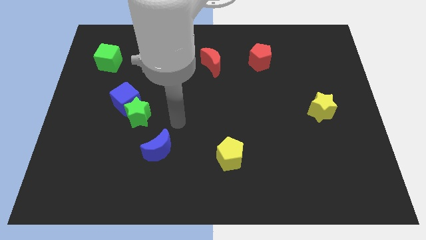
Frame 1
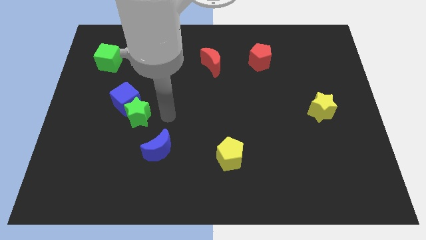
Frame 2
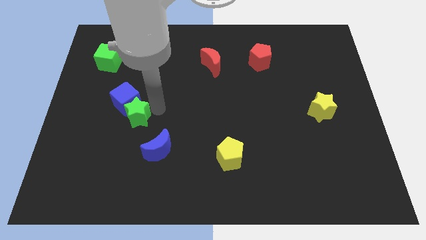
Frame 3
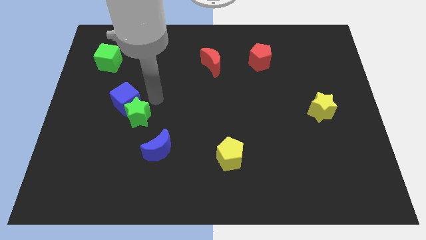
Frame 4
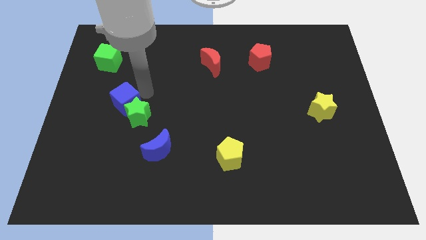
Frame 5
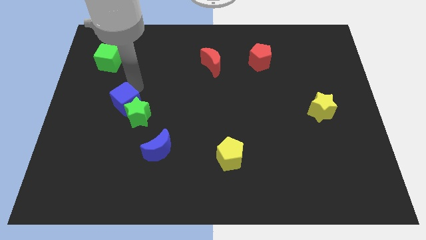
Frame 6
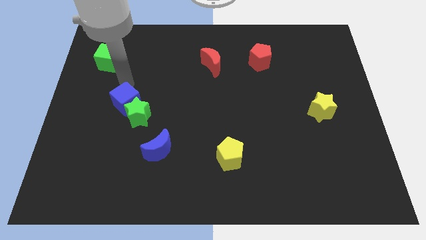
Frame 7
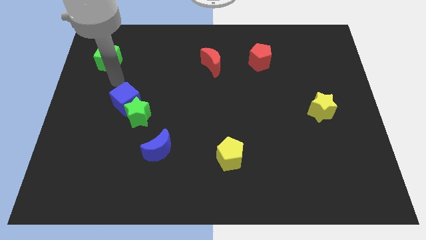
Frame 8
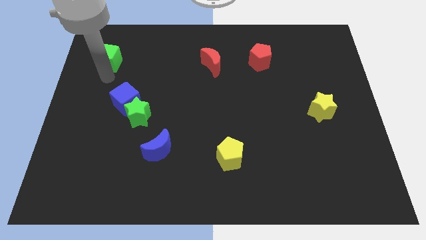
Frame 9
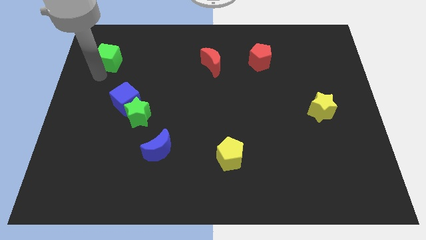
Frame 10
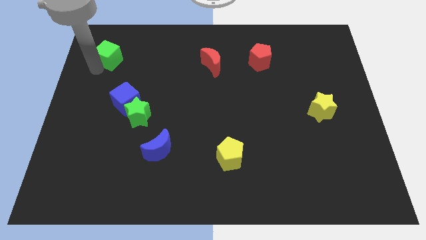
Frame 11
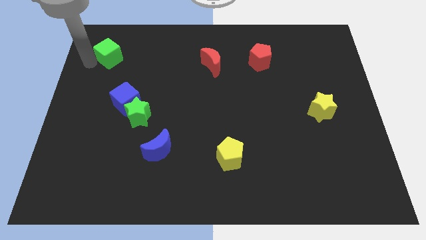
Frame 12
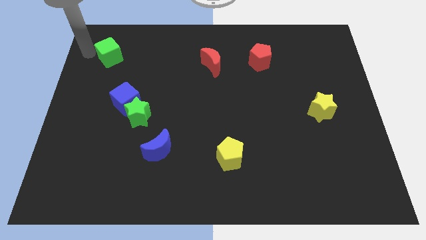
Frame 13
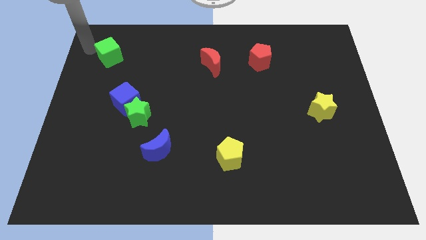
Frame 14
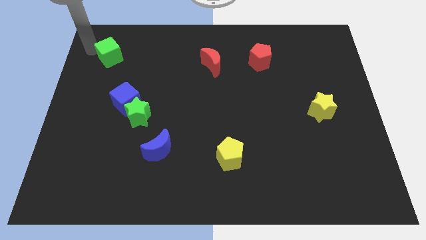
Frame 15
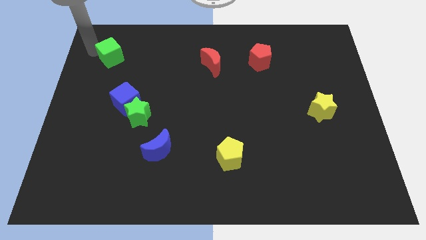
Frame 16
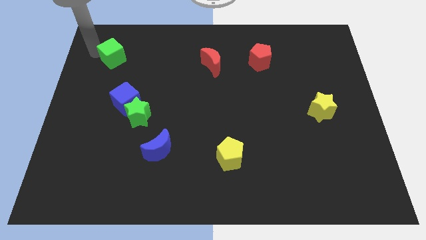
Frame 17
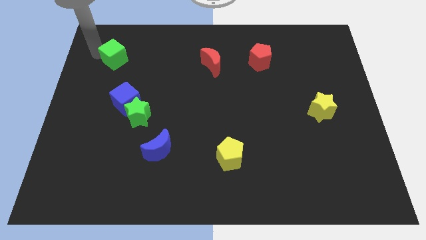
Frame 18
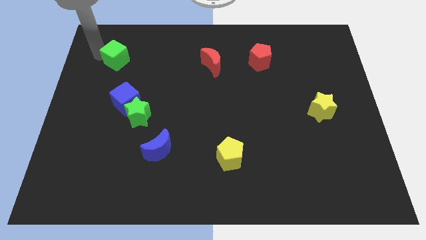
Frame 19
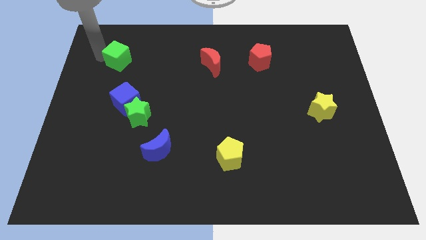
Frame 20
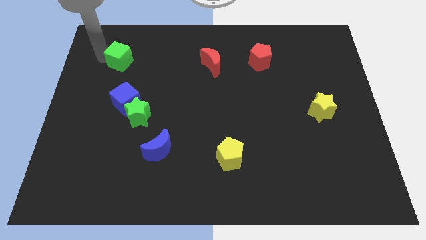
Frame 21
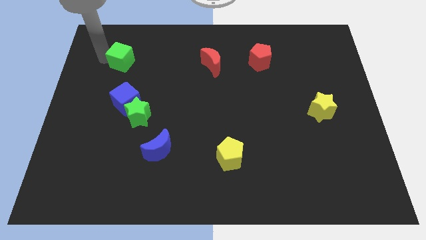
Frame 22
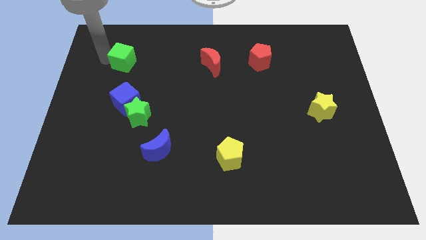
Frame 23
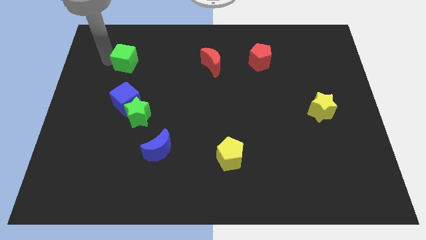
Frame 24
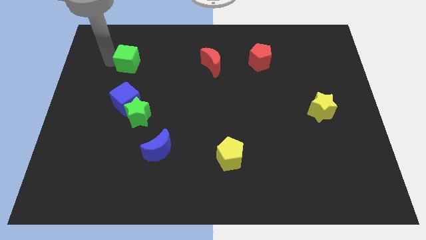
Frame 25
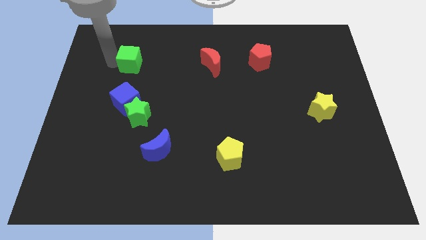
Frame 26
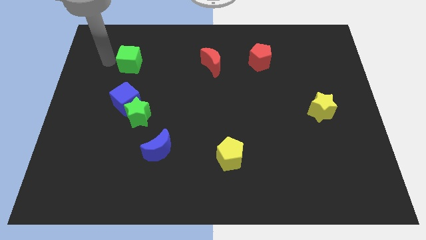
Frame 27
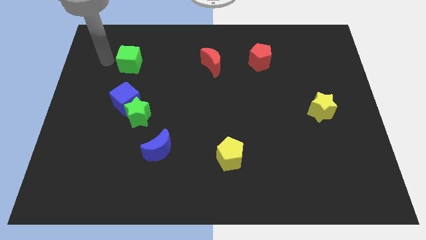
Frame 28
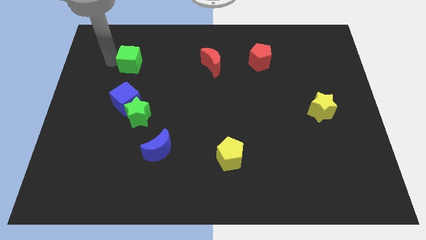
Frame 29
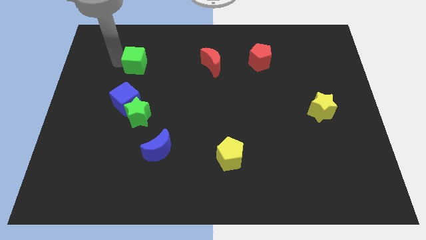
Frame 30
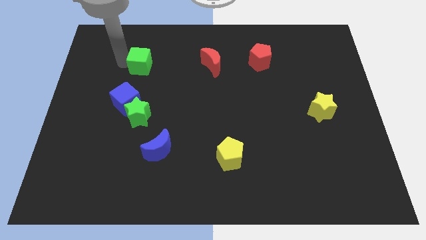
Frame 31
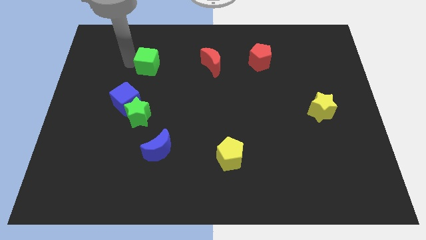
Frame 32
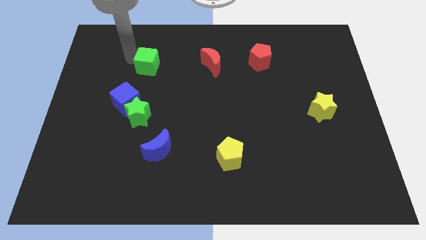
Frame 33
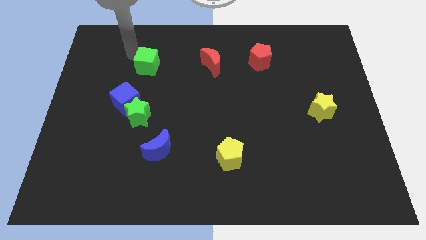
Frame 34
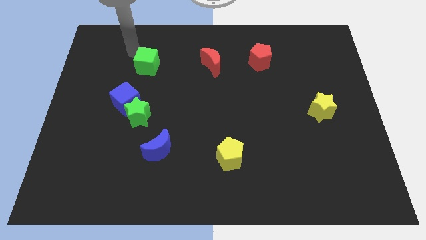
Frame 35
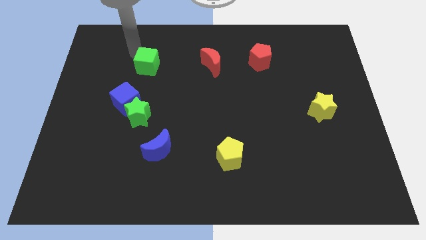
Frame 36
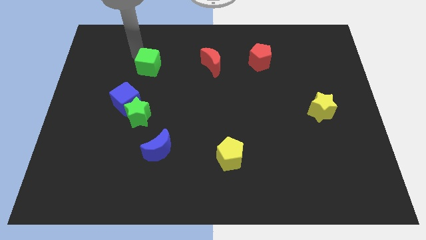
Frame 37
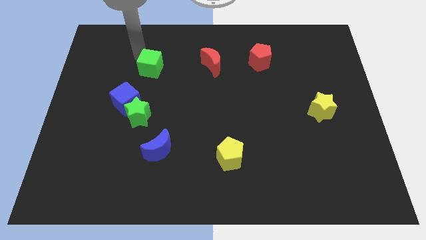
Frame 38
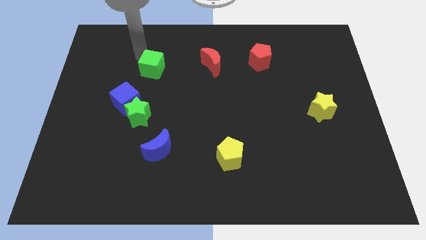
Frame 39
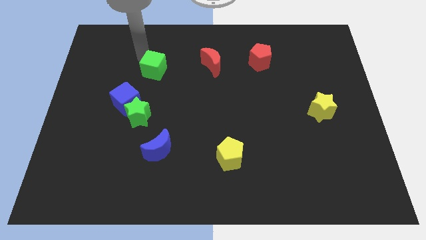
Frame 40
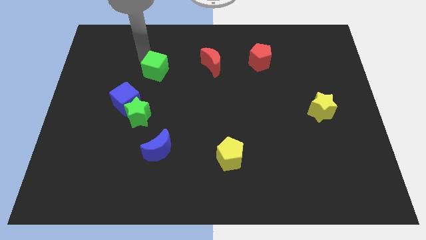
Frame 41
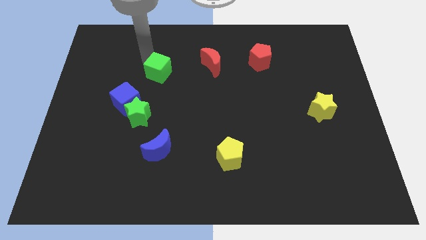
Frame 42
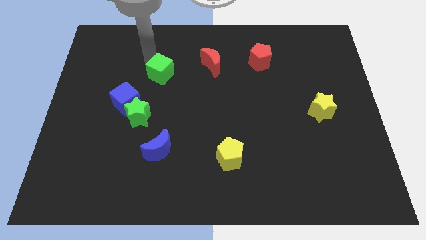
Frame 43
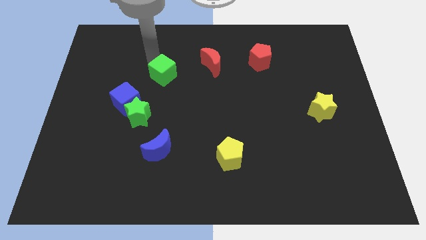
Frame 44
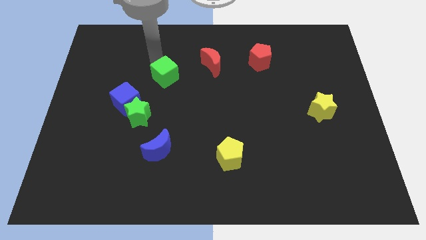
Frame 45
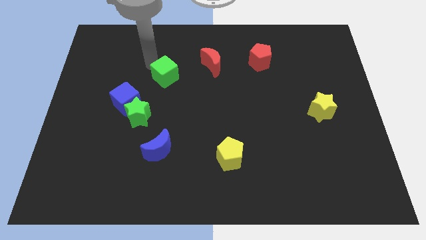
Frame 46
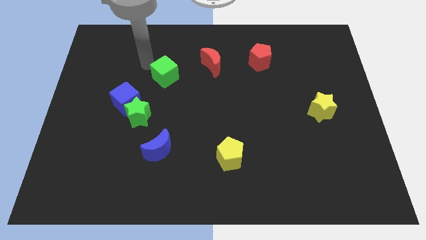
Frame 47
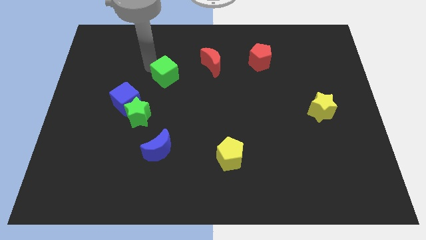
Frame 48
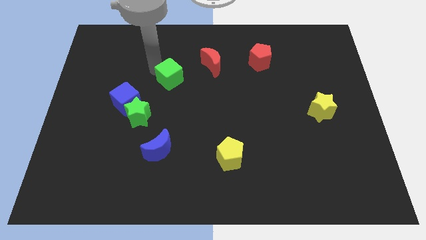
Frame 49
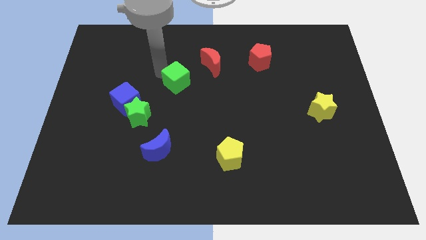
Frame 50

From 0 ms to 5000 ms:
move the green cube to the center of the board

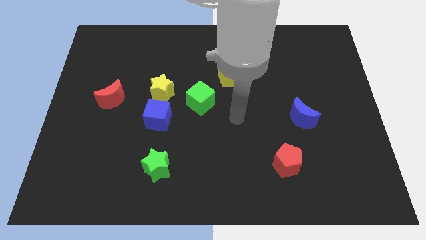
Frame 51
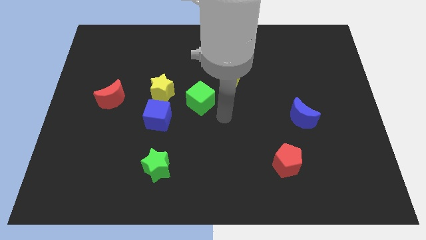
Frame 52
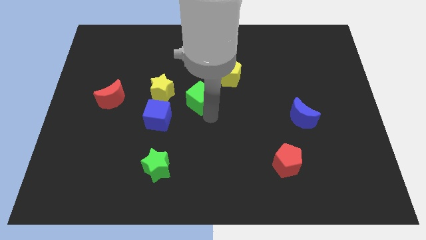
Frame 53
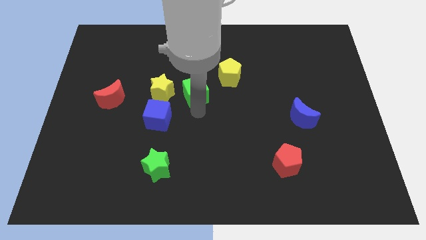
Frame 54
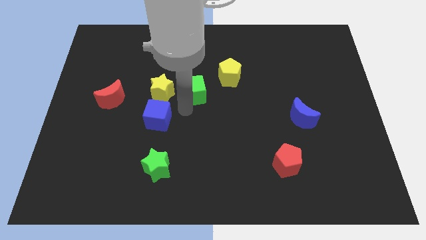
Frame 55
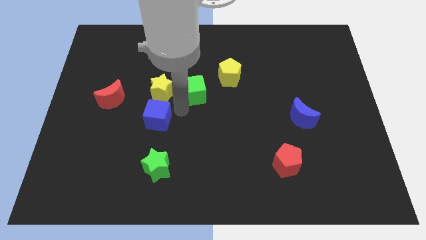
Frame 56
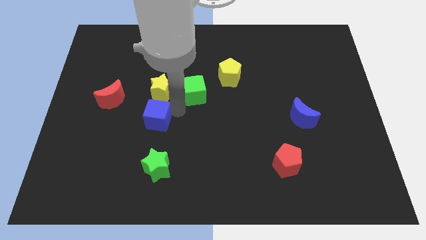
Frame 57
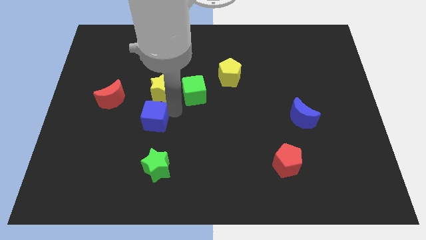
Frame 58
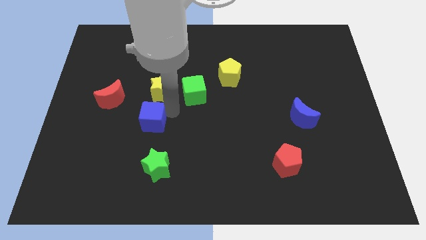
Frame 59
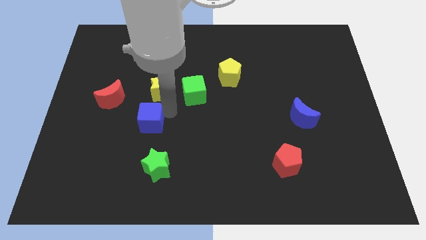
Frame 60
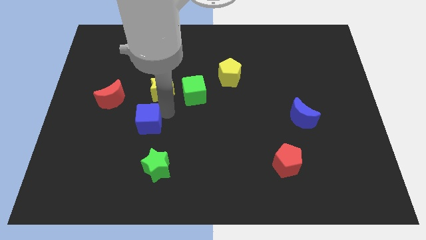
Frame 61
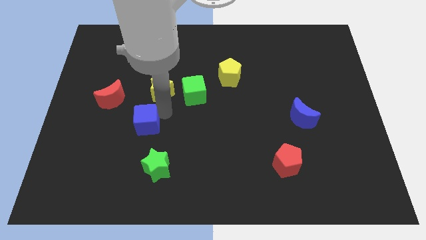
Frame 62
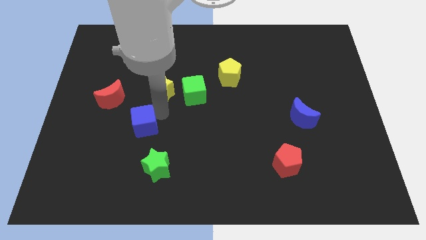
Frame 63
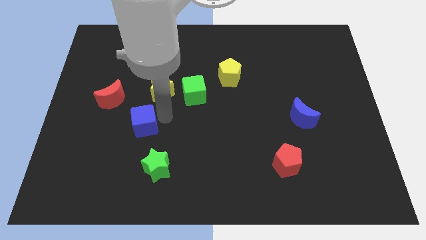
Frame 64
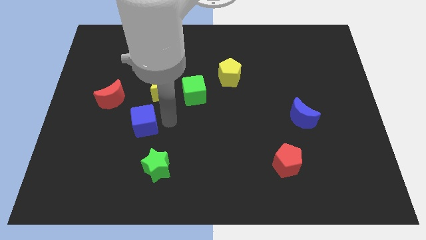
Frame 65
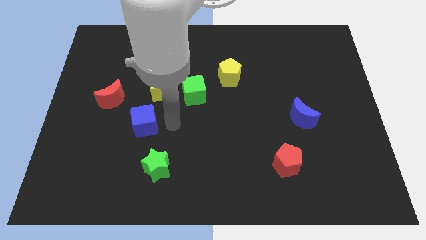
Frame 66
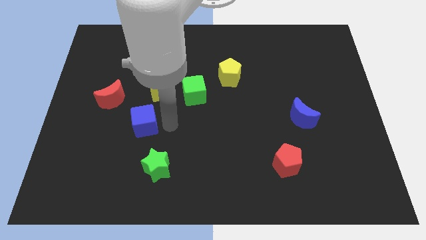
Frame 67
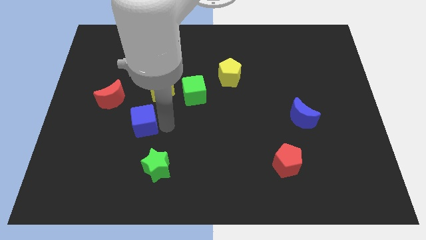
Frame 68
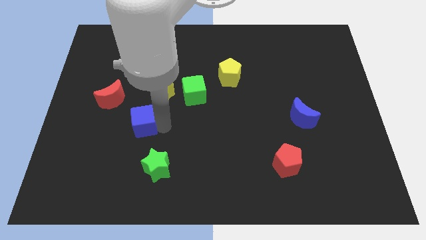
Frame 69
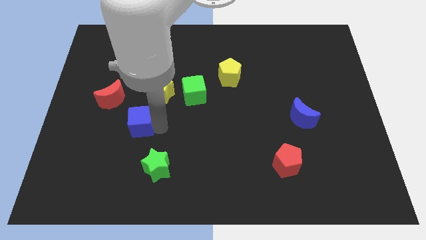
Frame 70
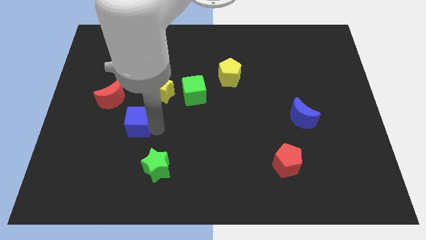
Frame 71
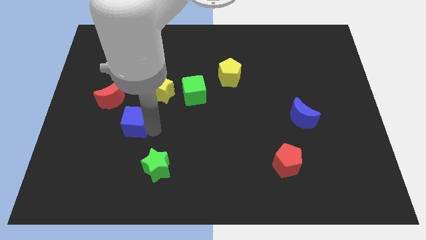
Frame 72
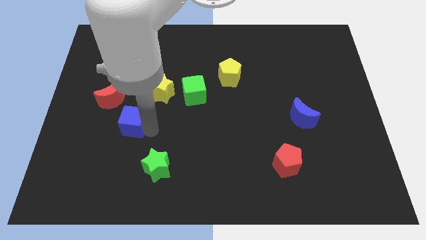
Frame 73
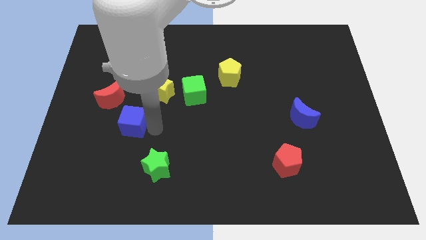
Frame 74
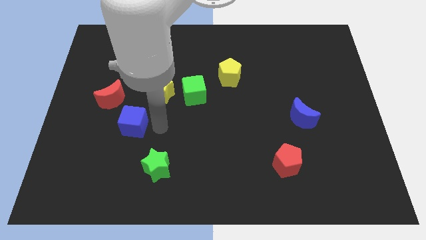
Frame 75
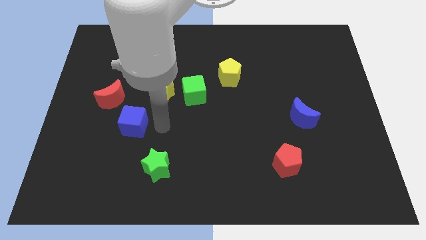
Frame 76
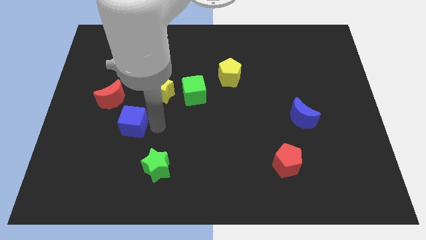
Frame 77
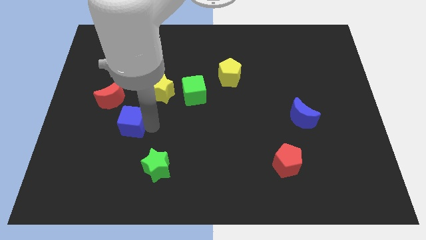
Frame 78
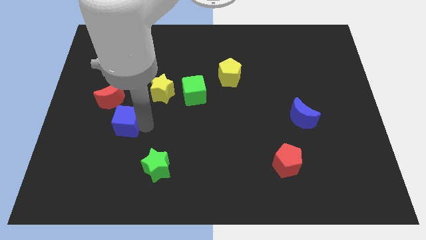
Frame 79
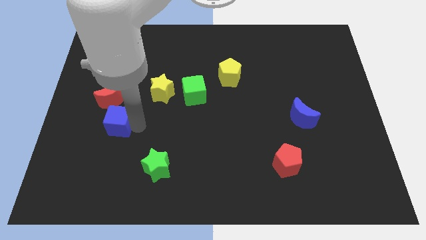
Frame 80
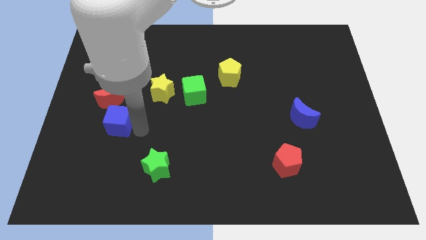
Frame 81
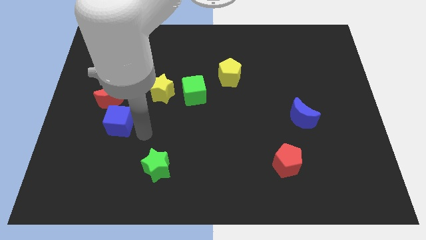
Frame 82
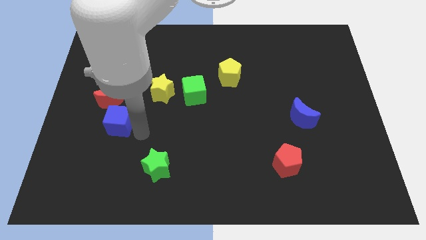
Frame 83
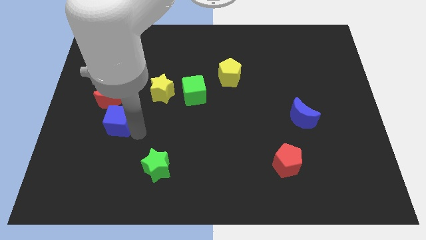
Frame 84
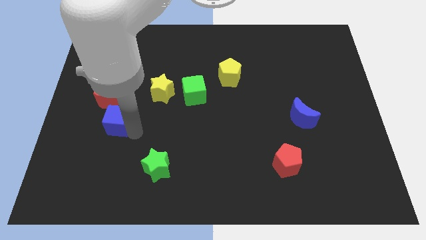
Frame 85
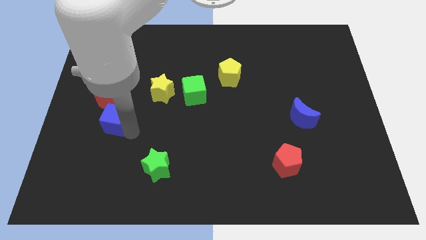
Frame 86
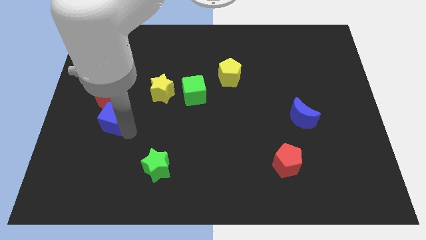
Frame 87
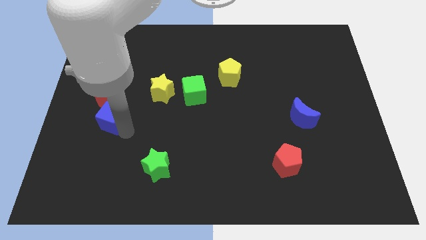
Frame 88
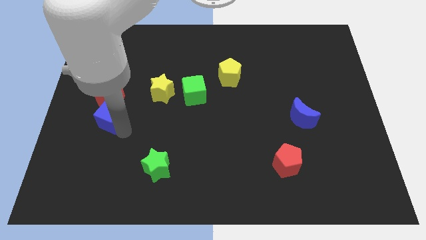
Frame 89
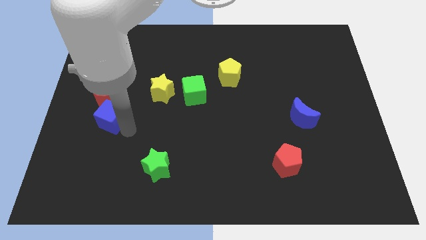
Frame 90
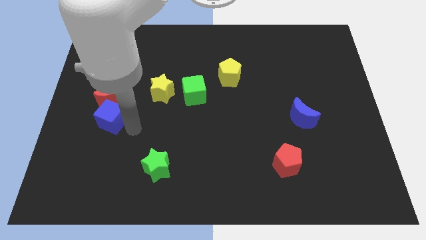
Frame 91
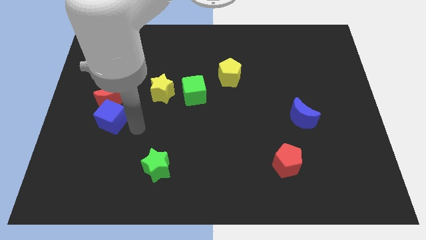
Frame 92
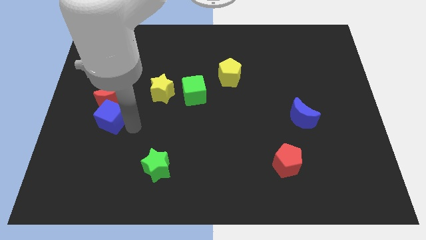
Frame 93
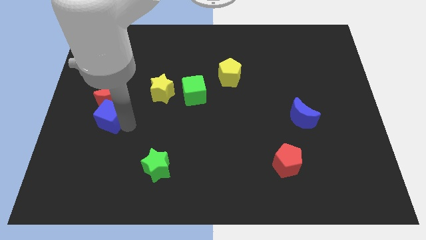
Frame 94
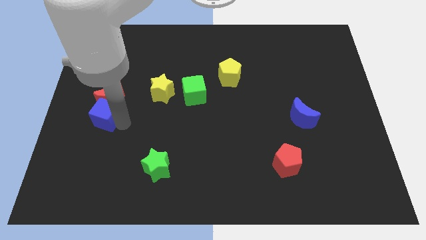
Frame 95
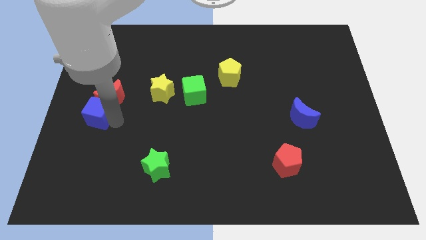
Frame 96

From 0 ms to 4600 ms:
move the blue cube to the left side
